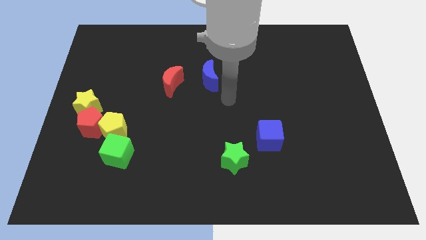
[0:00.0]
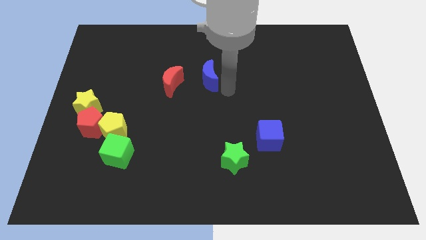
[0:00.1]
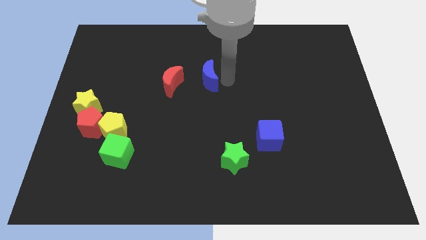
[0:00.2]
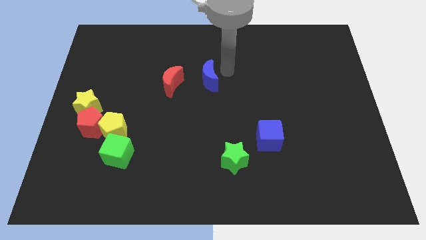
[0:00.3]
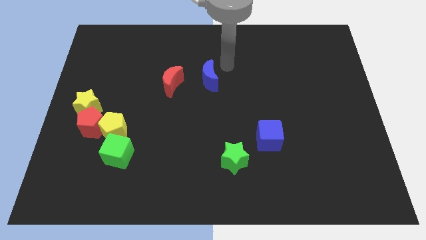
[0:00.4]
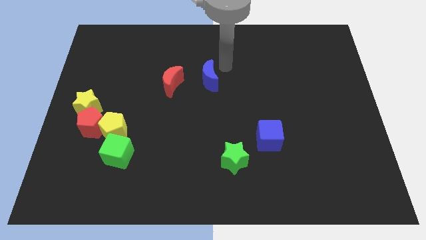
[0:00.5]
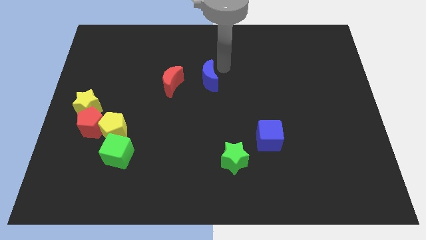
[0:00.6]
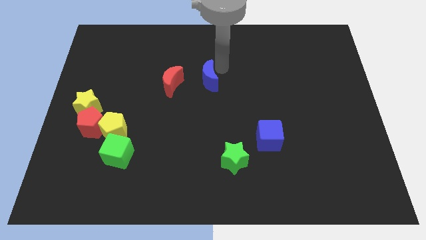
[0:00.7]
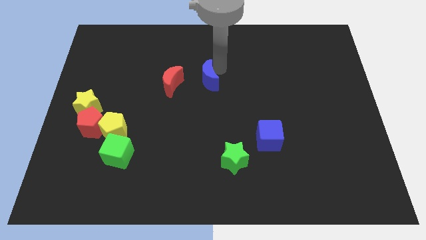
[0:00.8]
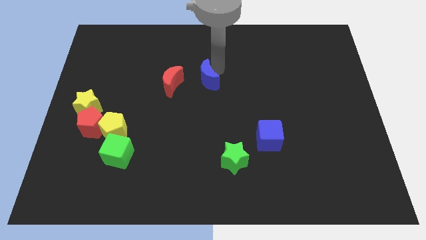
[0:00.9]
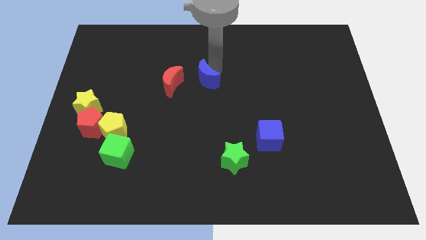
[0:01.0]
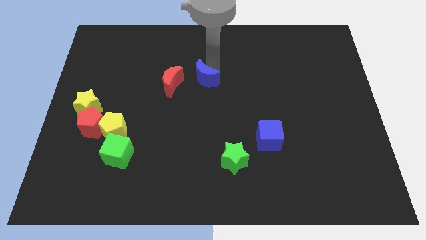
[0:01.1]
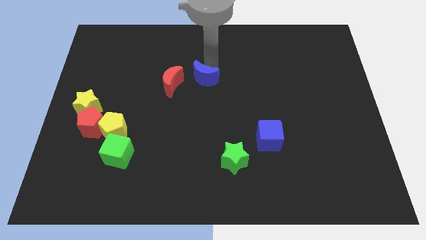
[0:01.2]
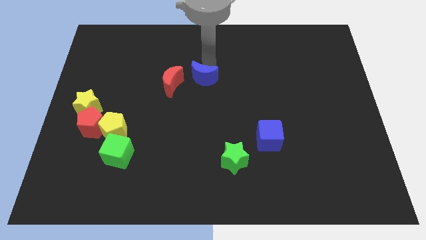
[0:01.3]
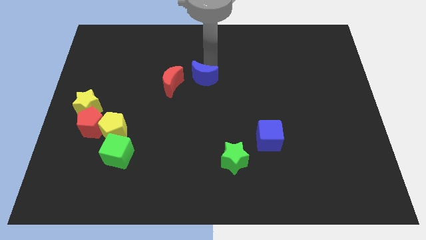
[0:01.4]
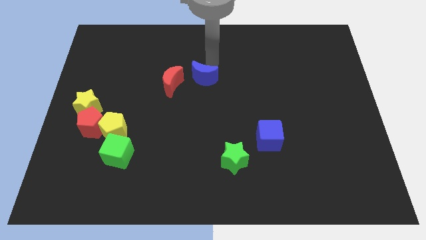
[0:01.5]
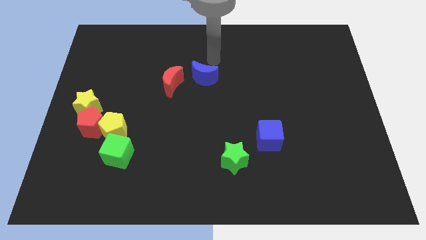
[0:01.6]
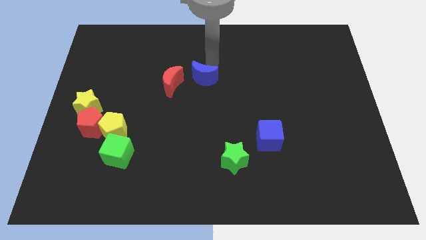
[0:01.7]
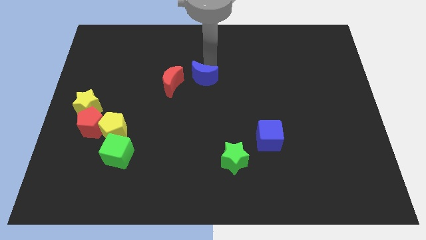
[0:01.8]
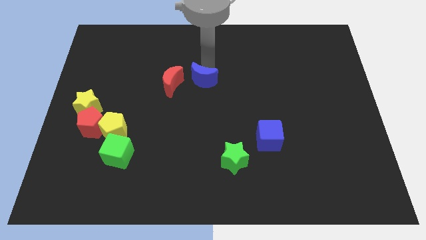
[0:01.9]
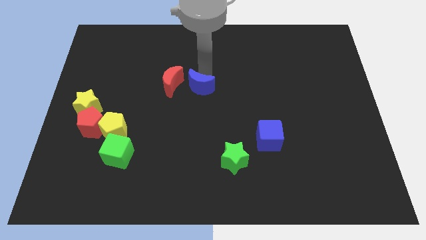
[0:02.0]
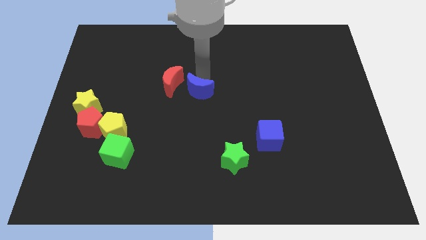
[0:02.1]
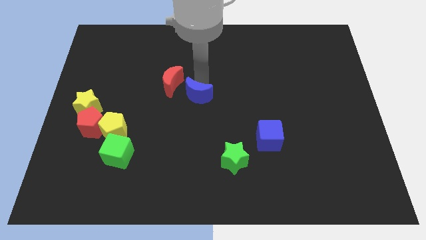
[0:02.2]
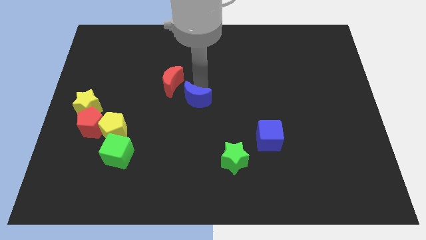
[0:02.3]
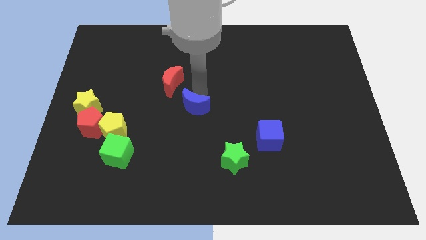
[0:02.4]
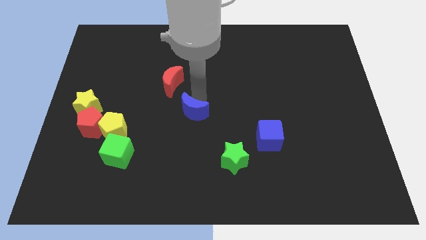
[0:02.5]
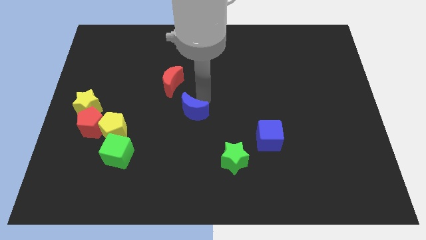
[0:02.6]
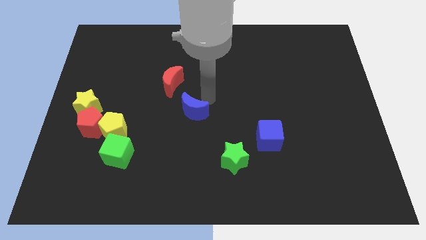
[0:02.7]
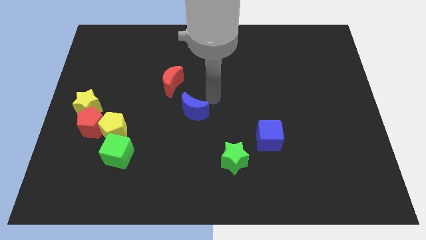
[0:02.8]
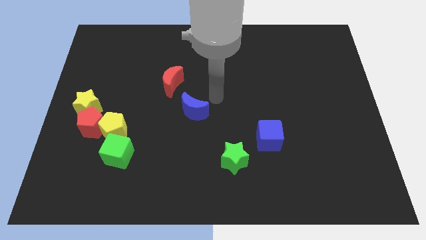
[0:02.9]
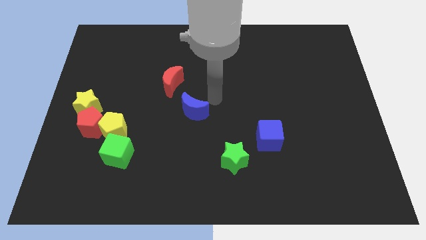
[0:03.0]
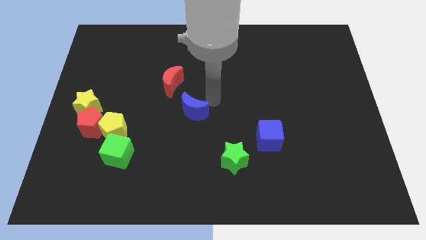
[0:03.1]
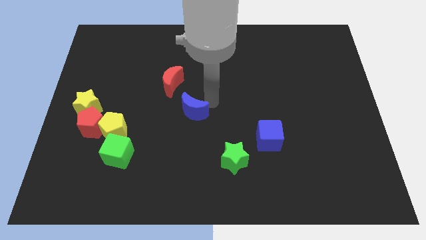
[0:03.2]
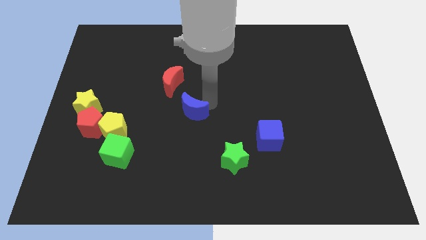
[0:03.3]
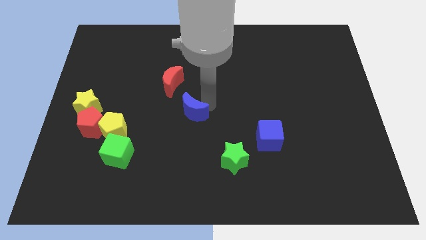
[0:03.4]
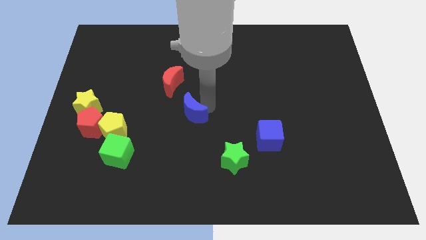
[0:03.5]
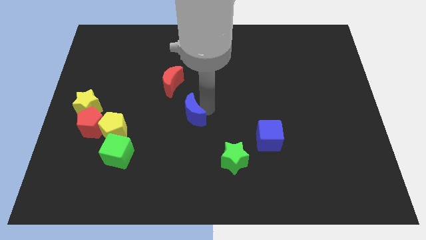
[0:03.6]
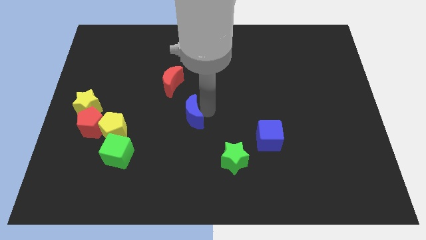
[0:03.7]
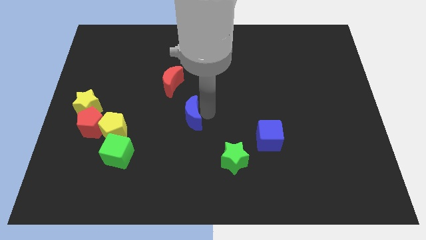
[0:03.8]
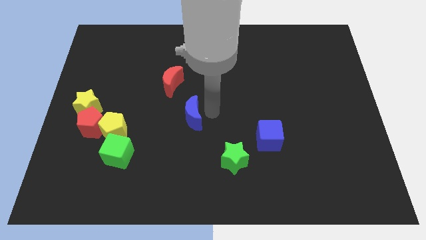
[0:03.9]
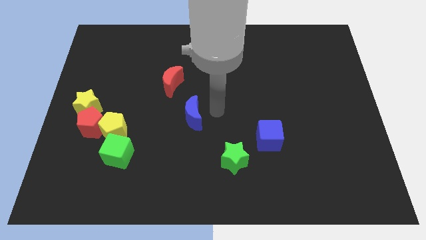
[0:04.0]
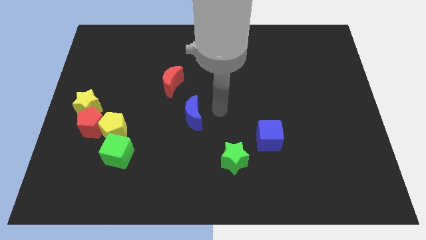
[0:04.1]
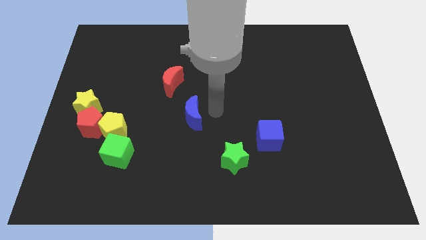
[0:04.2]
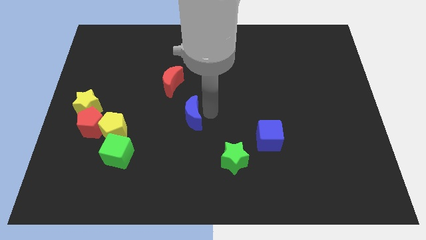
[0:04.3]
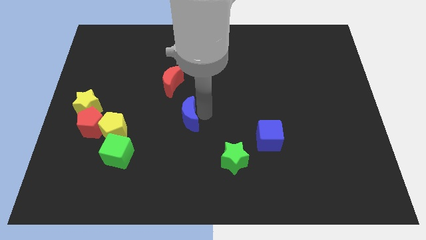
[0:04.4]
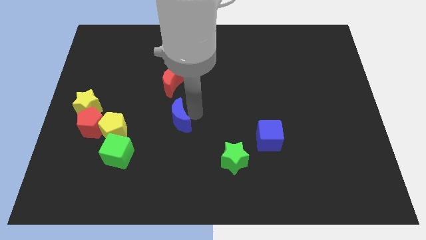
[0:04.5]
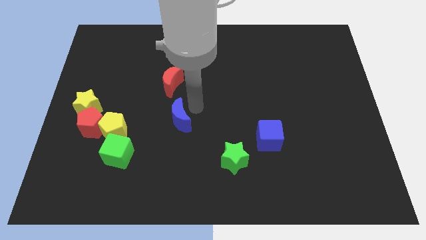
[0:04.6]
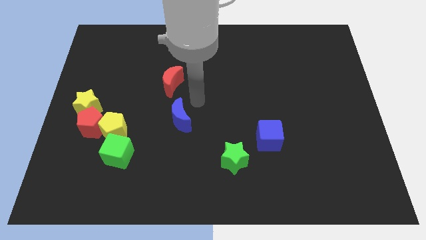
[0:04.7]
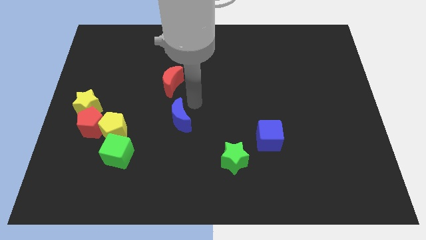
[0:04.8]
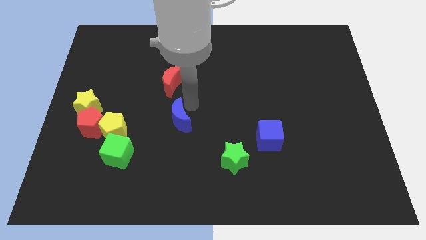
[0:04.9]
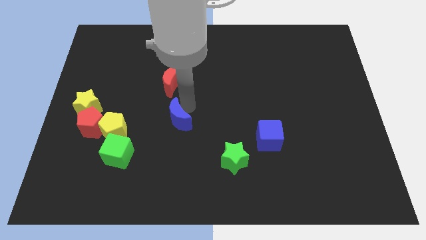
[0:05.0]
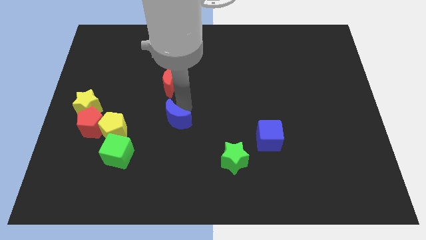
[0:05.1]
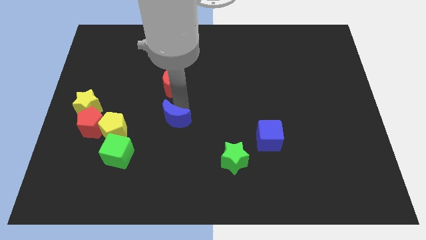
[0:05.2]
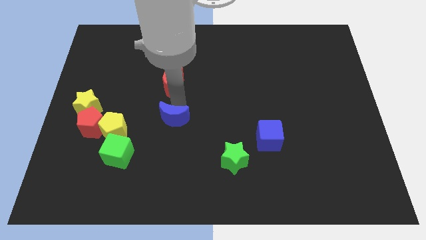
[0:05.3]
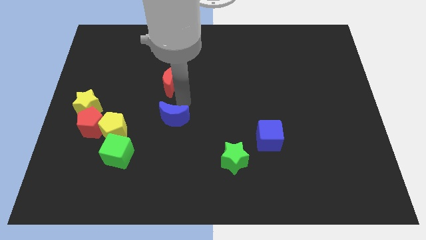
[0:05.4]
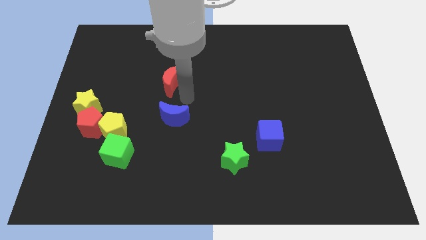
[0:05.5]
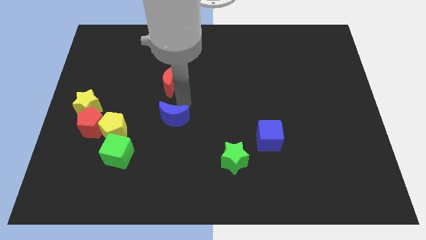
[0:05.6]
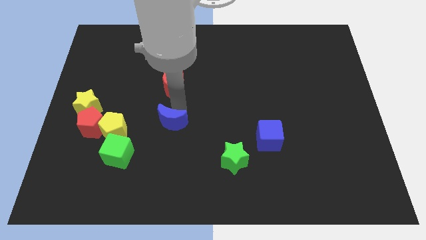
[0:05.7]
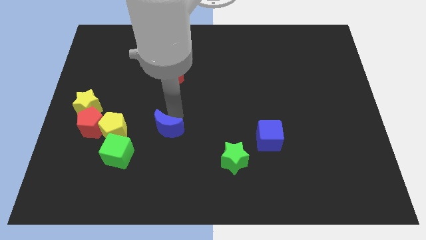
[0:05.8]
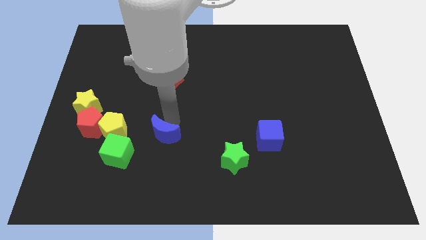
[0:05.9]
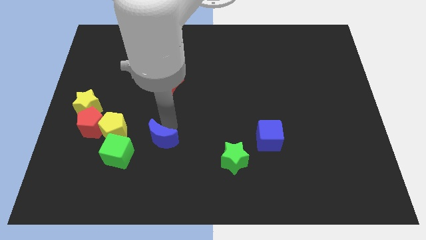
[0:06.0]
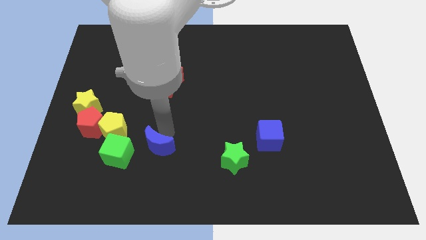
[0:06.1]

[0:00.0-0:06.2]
push the blue moon diagonally down and to the left

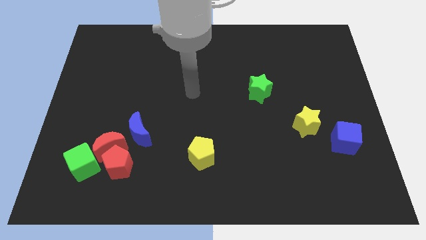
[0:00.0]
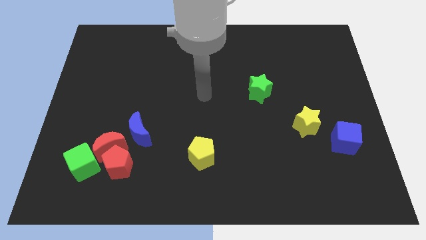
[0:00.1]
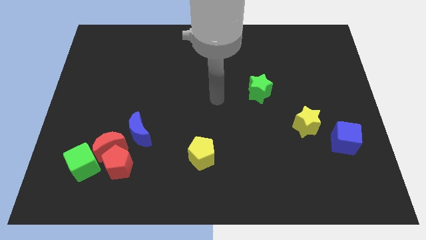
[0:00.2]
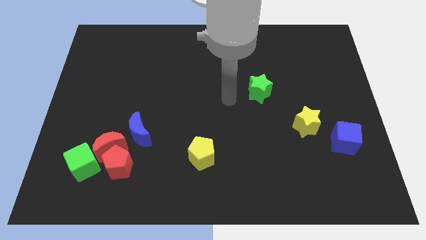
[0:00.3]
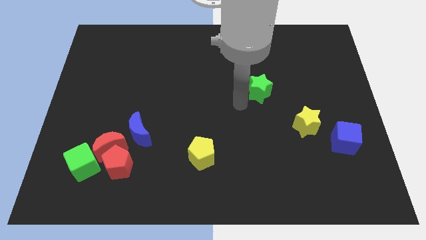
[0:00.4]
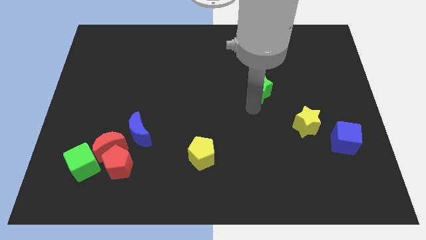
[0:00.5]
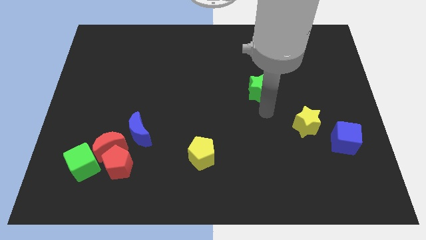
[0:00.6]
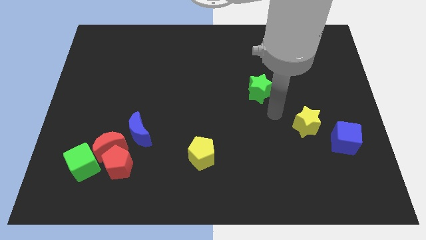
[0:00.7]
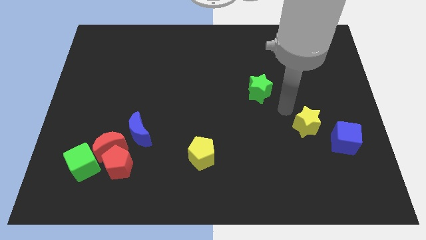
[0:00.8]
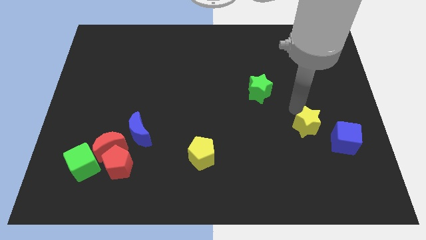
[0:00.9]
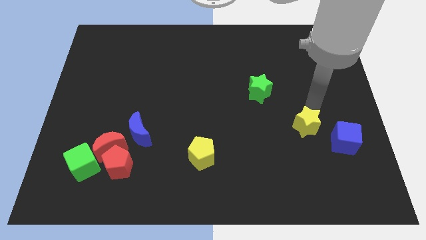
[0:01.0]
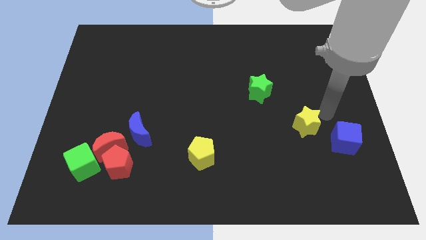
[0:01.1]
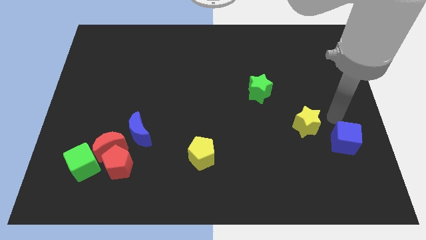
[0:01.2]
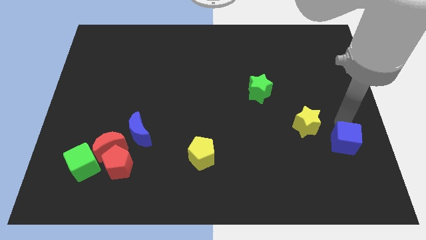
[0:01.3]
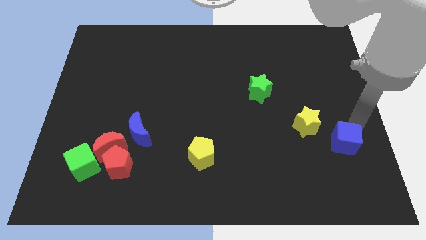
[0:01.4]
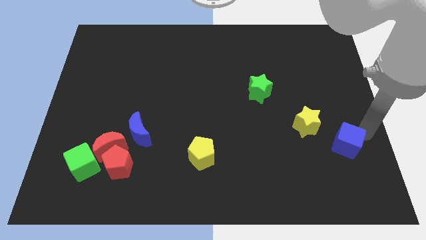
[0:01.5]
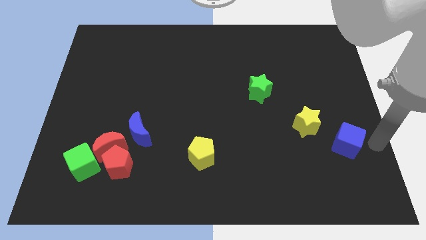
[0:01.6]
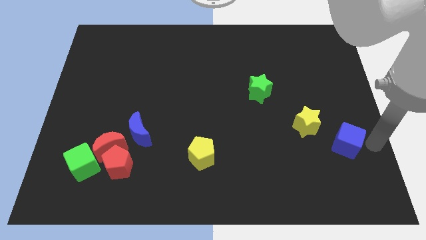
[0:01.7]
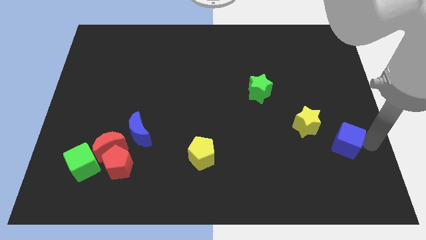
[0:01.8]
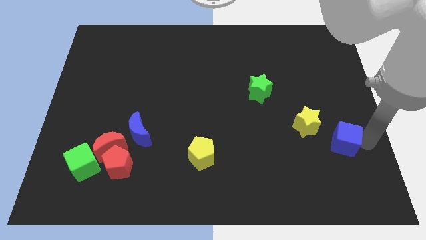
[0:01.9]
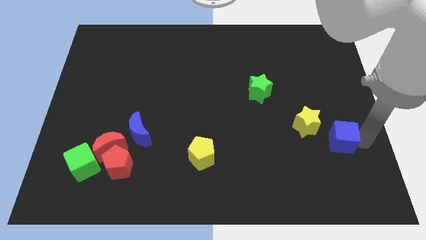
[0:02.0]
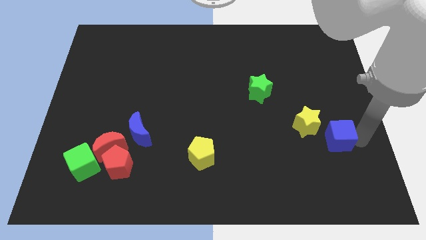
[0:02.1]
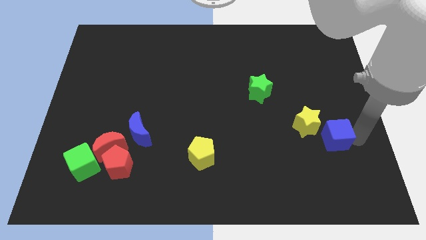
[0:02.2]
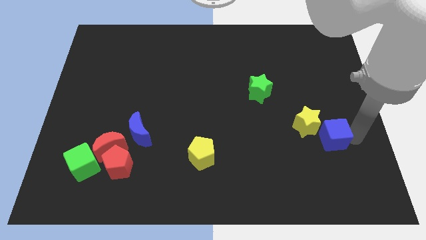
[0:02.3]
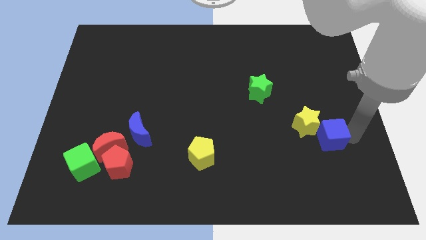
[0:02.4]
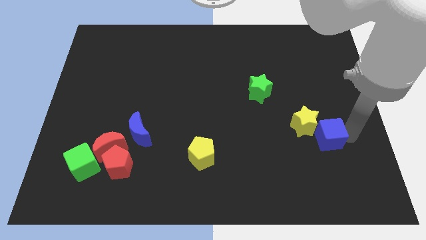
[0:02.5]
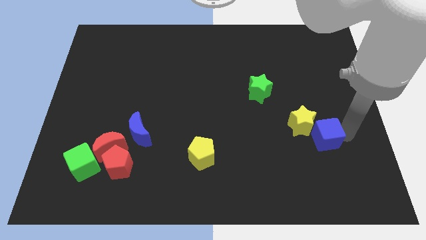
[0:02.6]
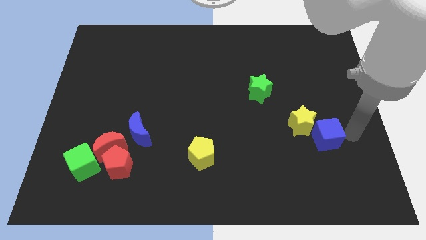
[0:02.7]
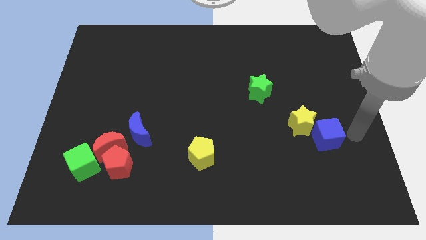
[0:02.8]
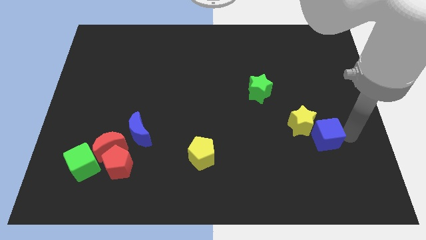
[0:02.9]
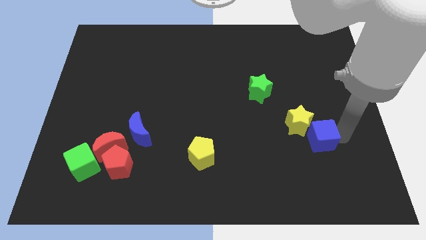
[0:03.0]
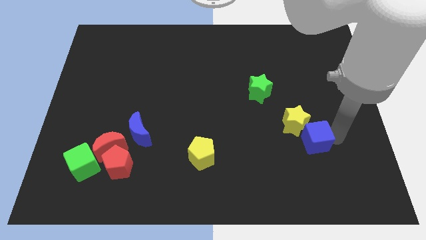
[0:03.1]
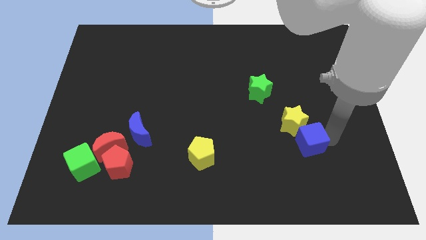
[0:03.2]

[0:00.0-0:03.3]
slide the blue cube to the left a little
